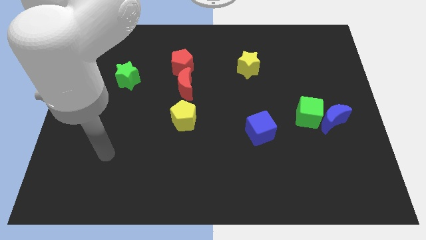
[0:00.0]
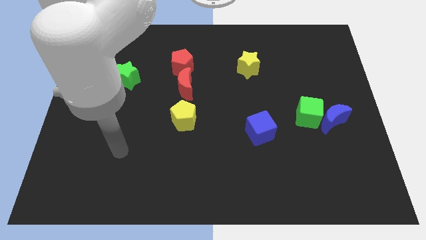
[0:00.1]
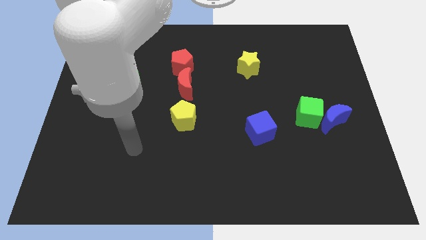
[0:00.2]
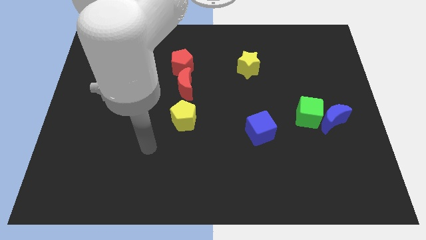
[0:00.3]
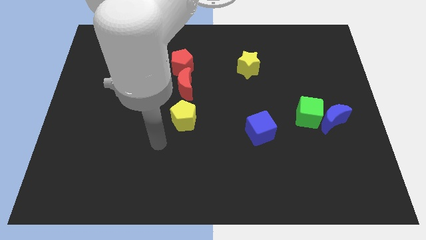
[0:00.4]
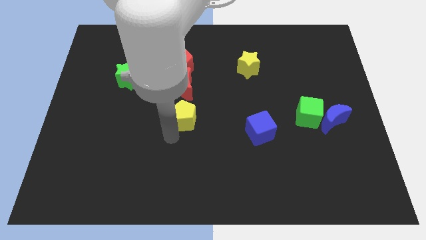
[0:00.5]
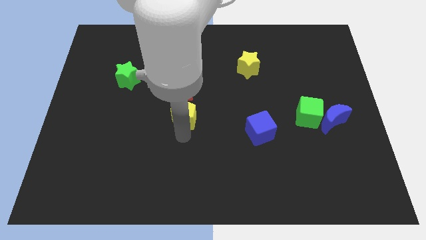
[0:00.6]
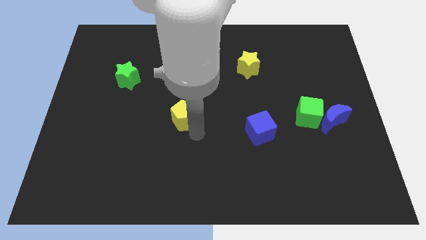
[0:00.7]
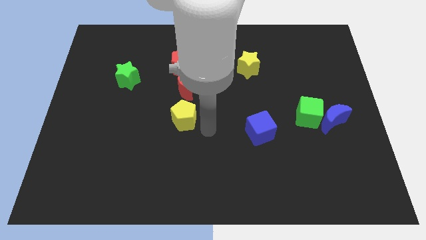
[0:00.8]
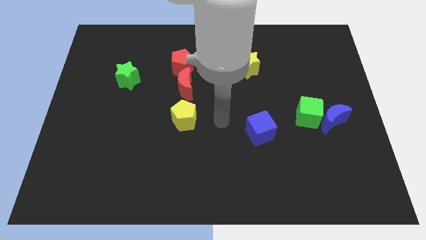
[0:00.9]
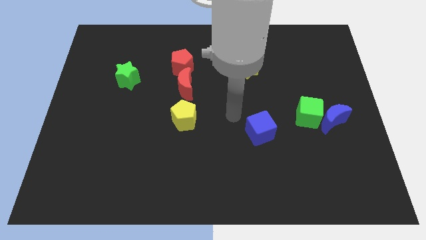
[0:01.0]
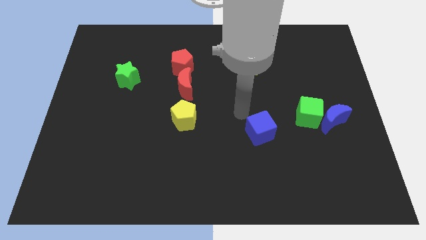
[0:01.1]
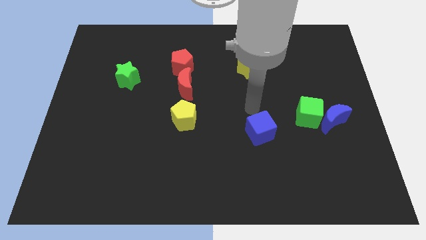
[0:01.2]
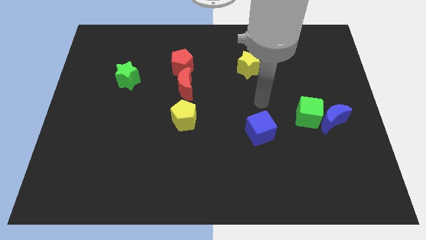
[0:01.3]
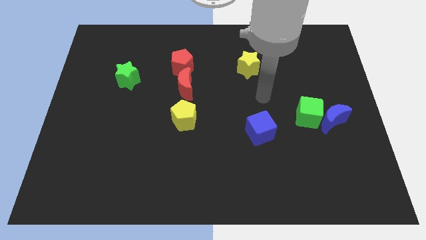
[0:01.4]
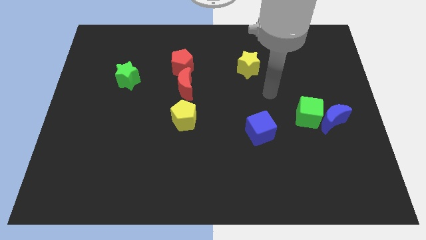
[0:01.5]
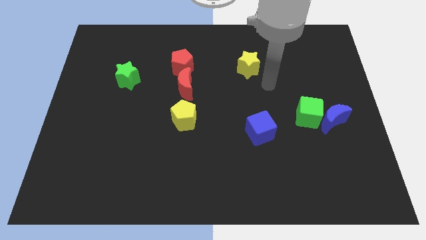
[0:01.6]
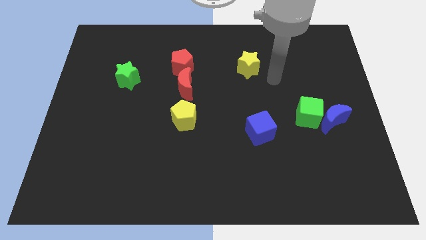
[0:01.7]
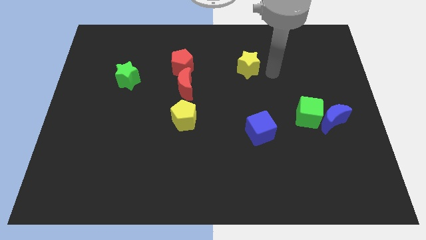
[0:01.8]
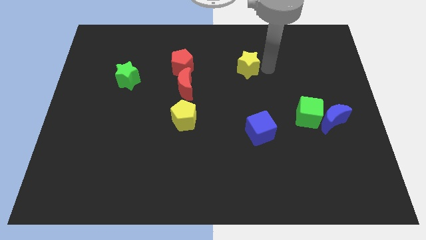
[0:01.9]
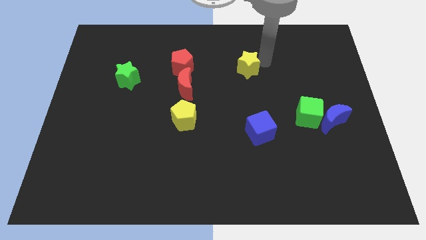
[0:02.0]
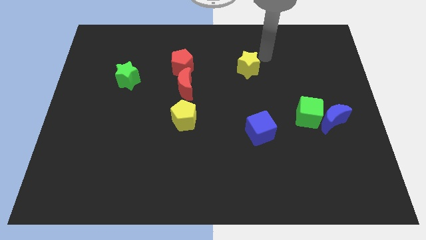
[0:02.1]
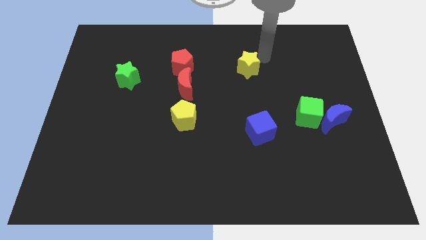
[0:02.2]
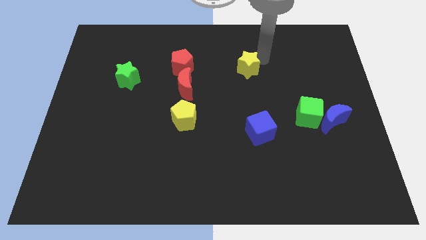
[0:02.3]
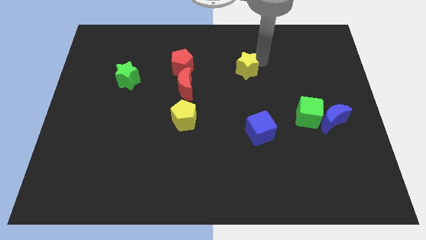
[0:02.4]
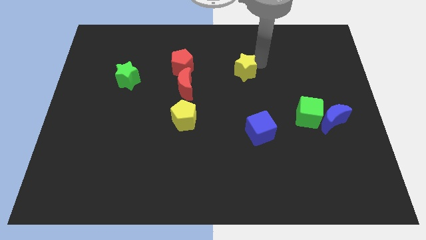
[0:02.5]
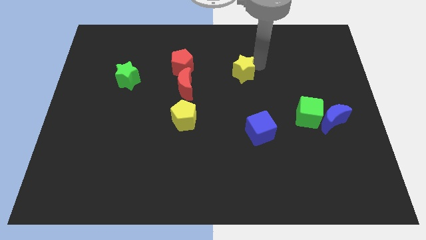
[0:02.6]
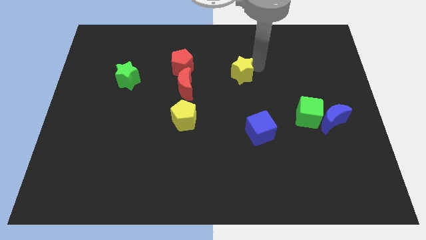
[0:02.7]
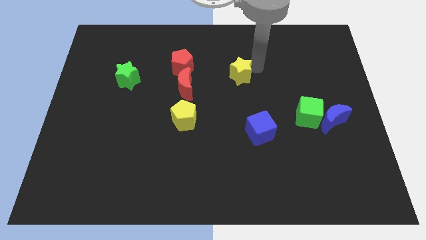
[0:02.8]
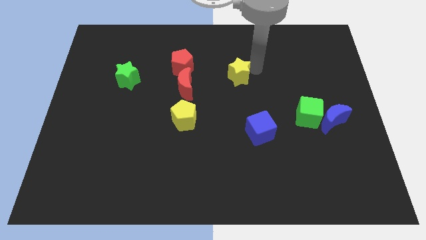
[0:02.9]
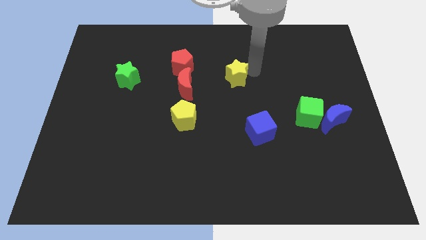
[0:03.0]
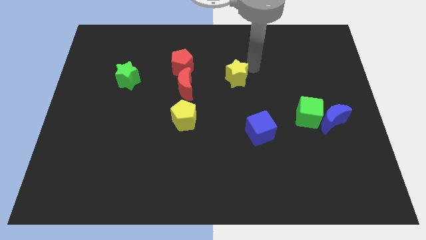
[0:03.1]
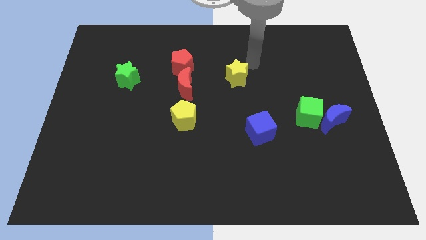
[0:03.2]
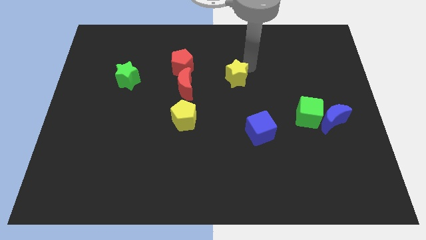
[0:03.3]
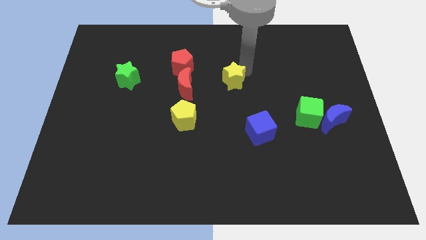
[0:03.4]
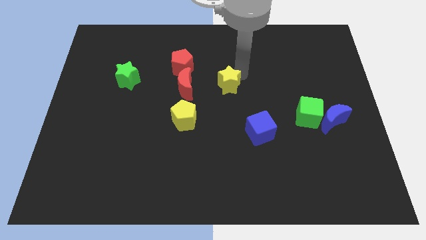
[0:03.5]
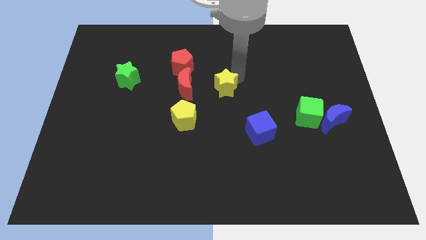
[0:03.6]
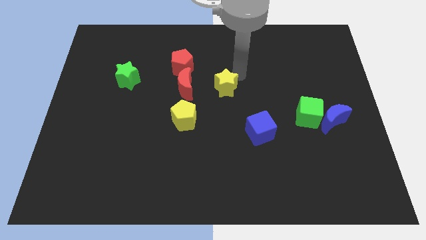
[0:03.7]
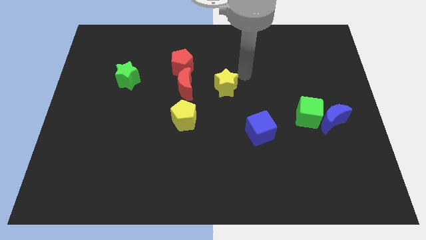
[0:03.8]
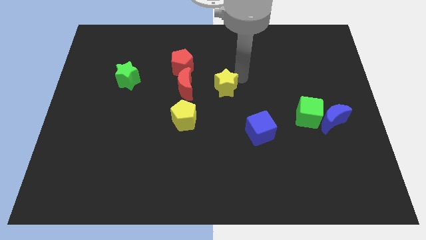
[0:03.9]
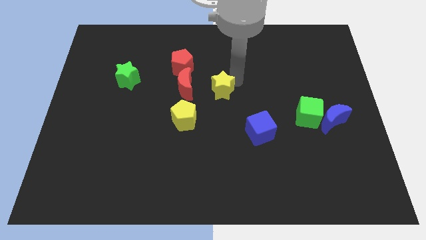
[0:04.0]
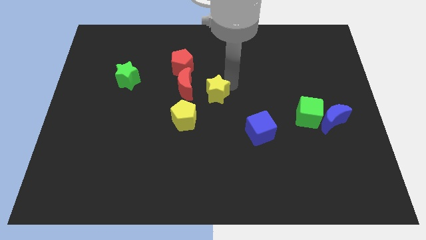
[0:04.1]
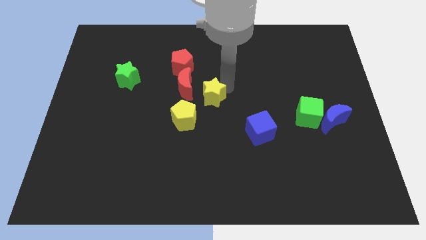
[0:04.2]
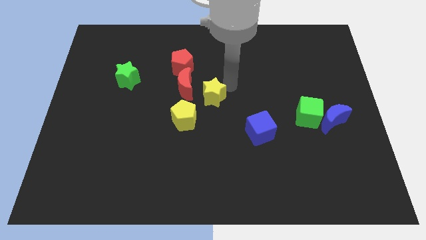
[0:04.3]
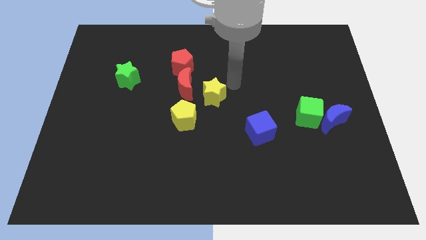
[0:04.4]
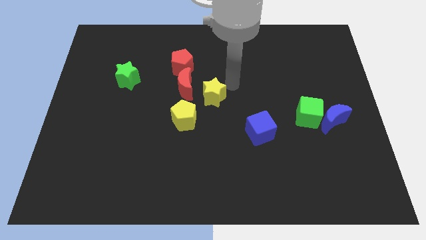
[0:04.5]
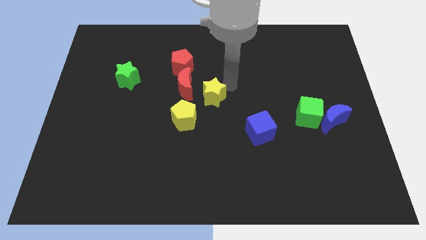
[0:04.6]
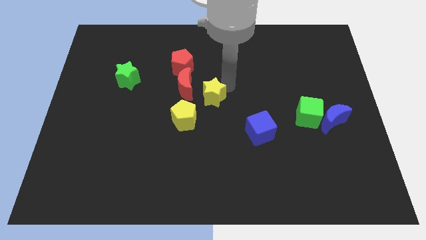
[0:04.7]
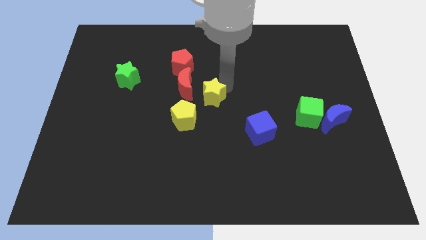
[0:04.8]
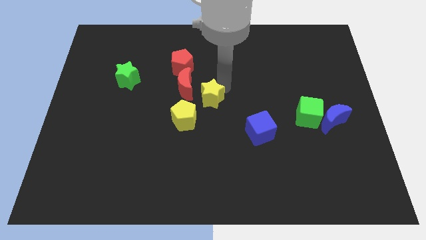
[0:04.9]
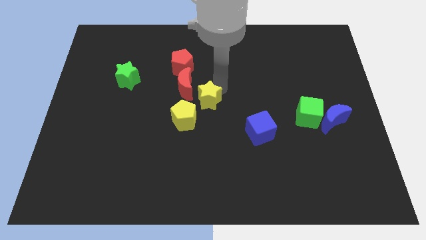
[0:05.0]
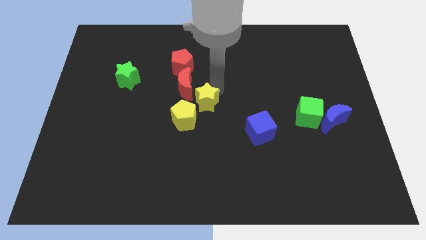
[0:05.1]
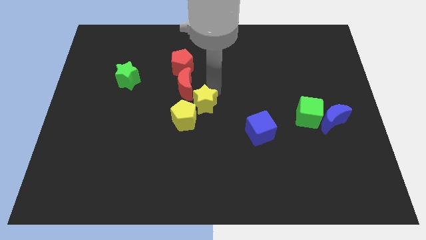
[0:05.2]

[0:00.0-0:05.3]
slide the yellow star towards the yellow pentagon

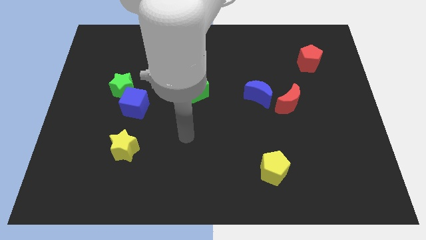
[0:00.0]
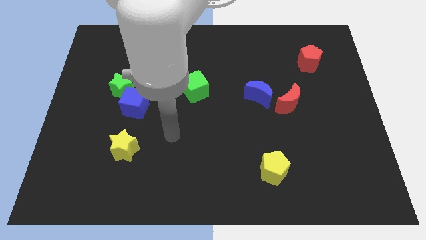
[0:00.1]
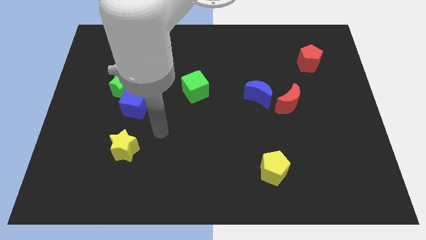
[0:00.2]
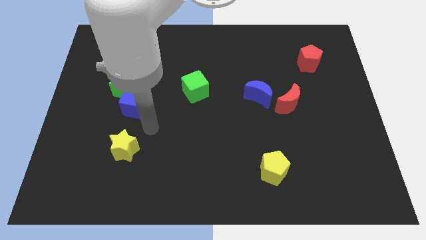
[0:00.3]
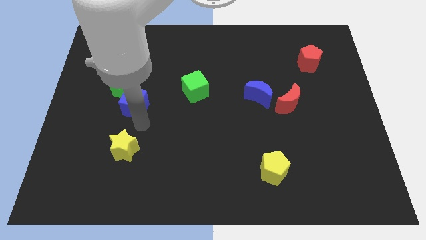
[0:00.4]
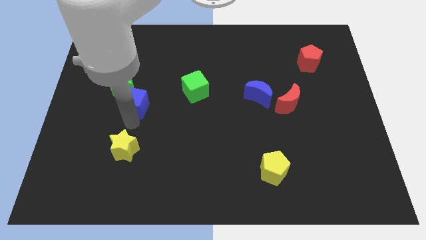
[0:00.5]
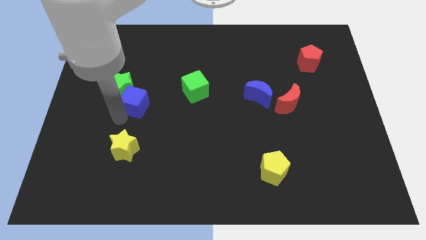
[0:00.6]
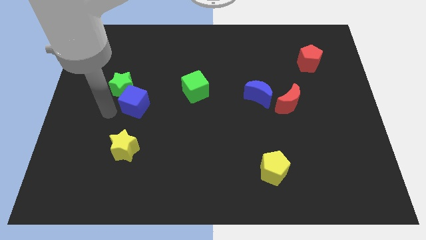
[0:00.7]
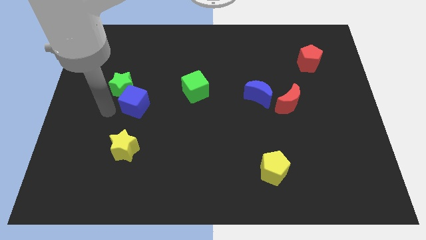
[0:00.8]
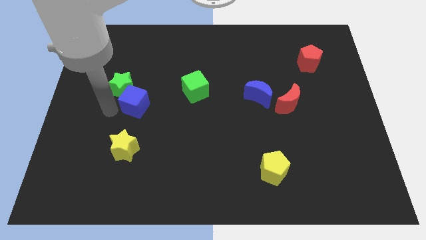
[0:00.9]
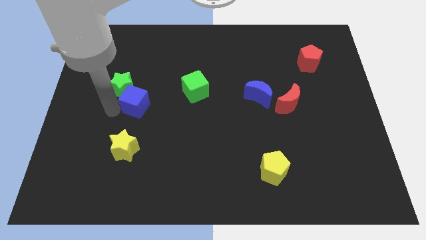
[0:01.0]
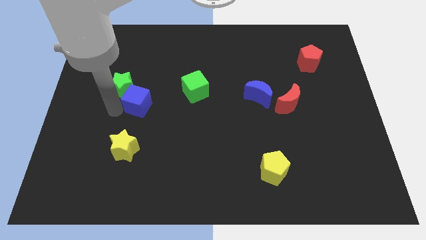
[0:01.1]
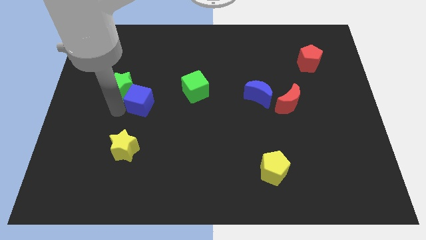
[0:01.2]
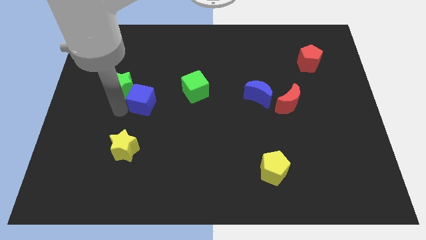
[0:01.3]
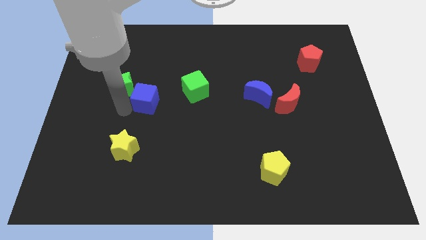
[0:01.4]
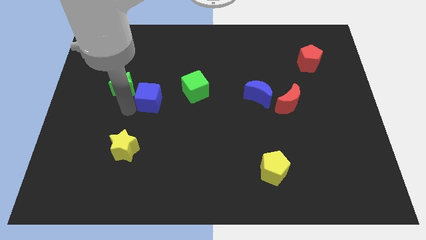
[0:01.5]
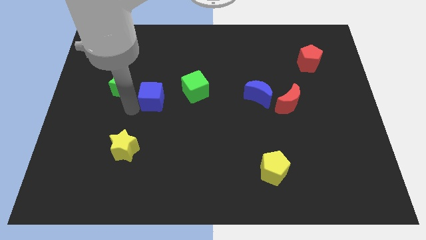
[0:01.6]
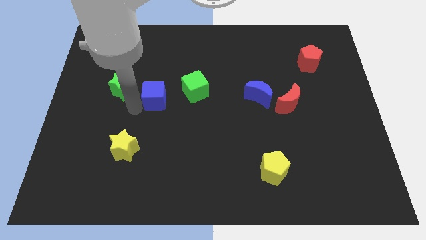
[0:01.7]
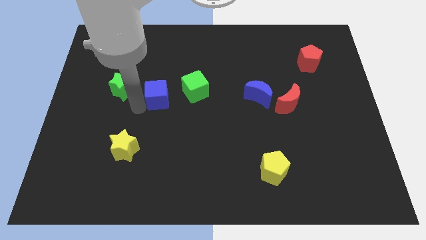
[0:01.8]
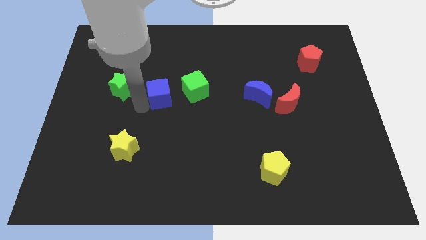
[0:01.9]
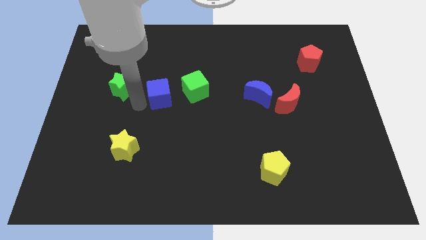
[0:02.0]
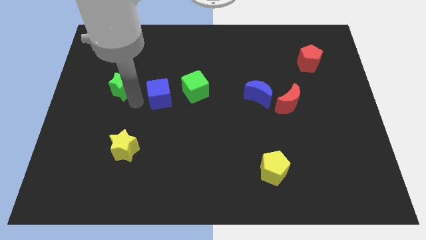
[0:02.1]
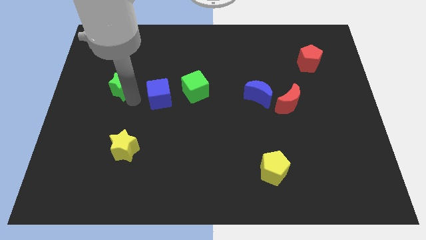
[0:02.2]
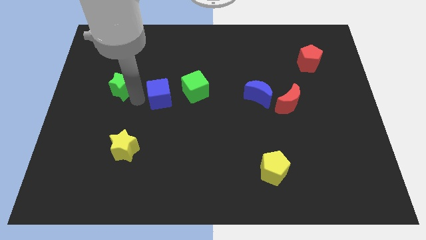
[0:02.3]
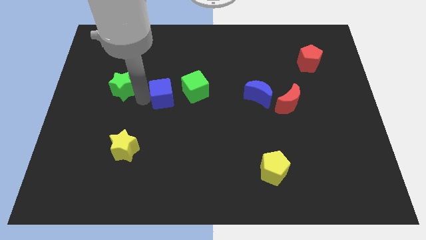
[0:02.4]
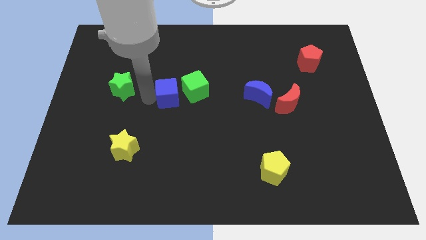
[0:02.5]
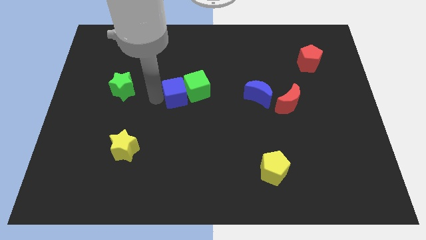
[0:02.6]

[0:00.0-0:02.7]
put the blue cube towards the green cube

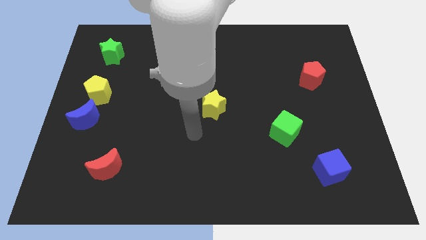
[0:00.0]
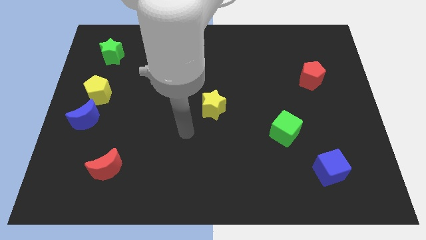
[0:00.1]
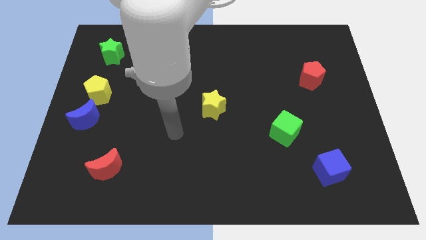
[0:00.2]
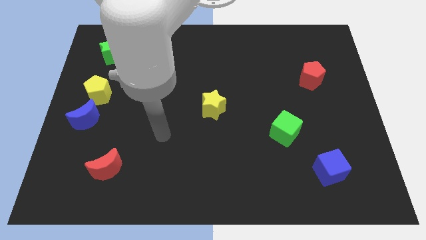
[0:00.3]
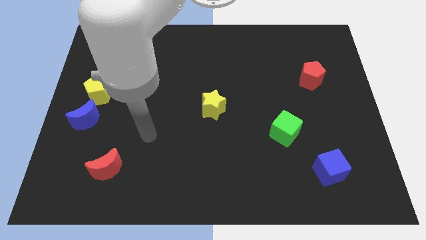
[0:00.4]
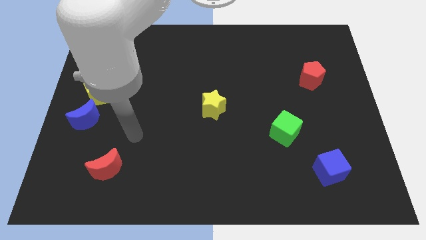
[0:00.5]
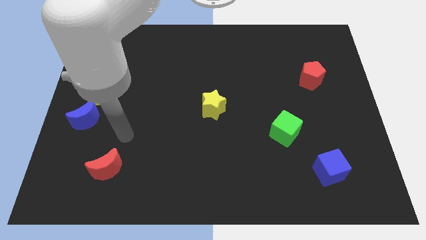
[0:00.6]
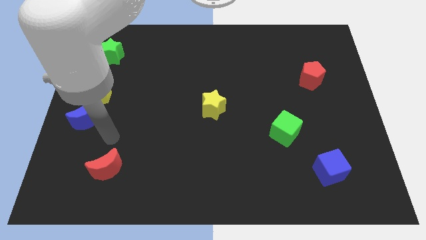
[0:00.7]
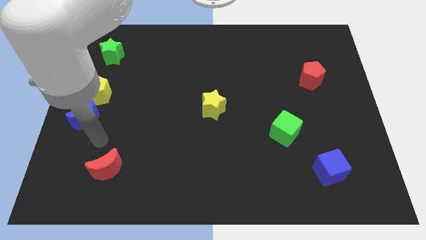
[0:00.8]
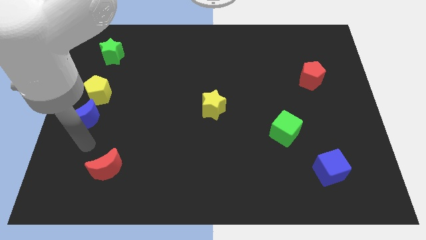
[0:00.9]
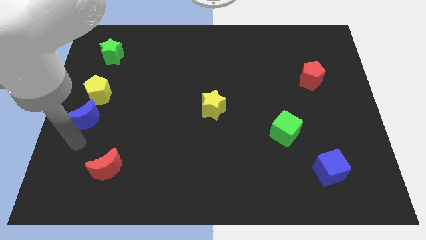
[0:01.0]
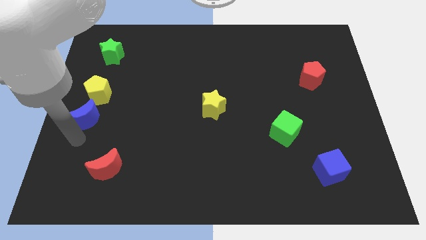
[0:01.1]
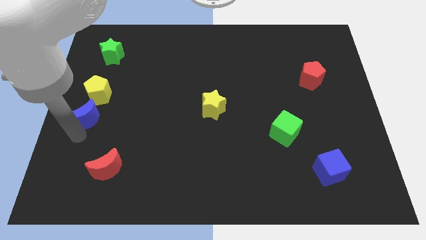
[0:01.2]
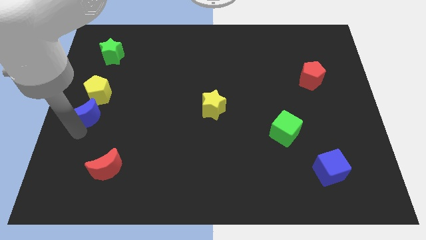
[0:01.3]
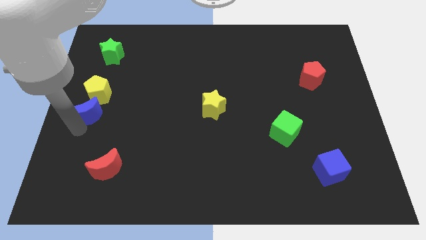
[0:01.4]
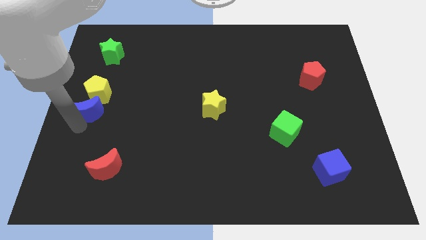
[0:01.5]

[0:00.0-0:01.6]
slide the blue moon to the yellow pentagon
